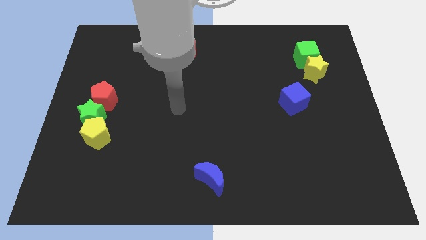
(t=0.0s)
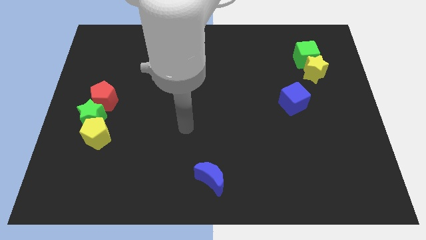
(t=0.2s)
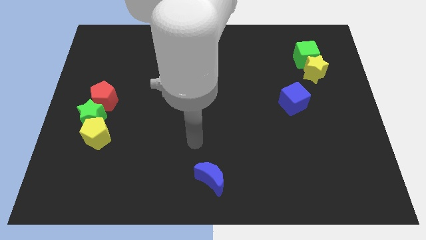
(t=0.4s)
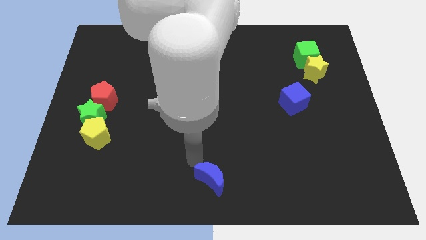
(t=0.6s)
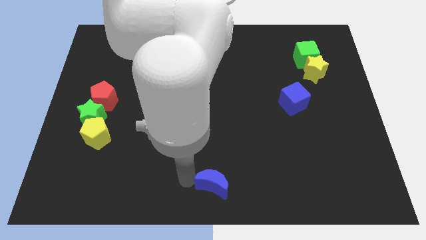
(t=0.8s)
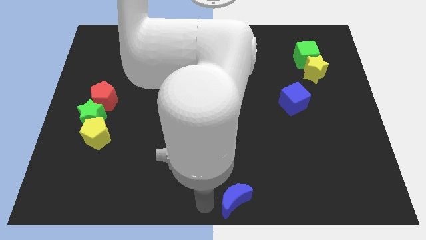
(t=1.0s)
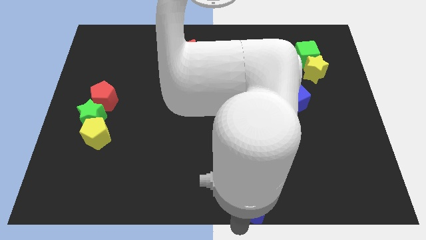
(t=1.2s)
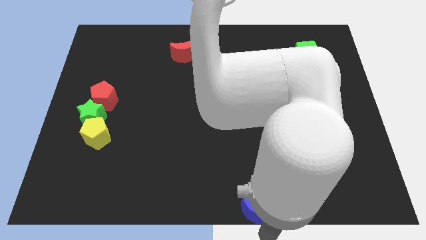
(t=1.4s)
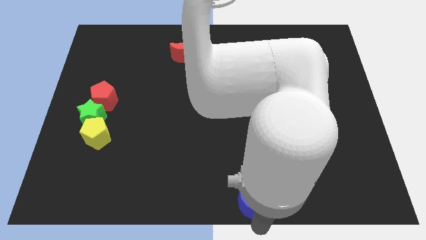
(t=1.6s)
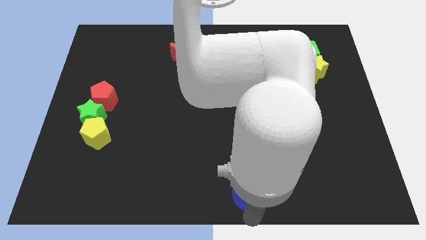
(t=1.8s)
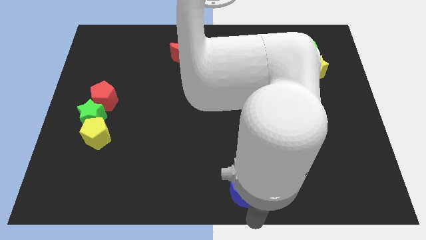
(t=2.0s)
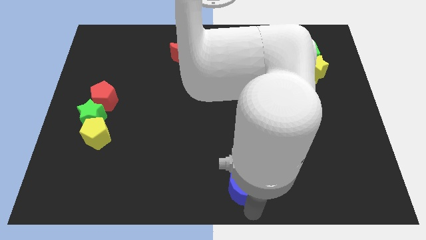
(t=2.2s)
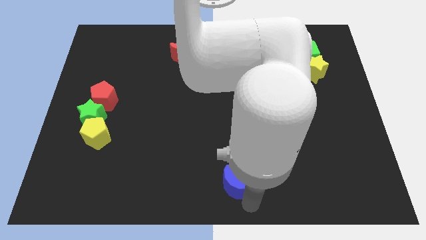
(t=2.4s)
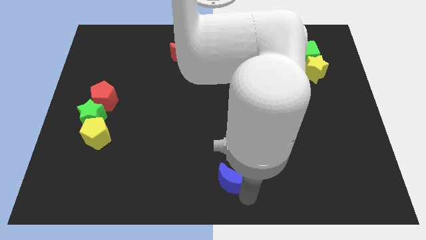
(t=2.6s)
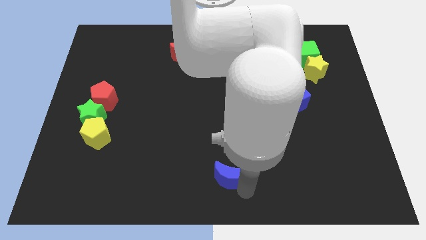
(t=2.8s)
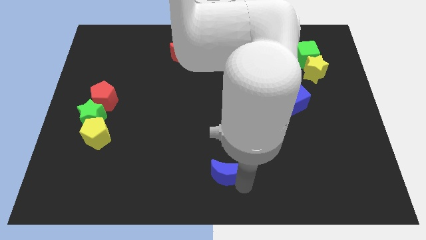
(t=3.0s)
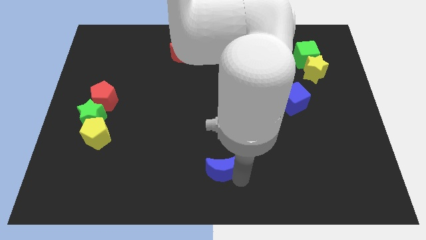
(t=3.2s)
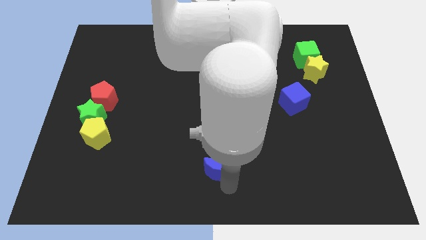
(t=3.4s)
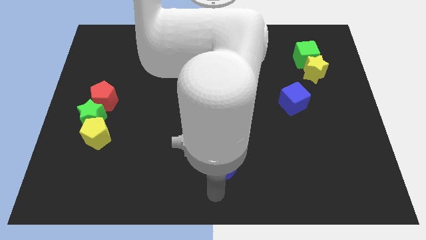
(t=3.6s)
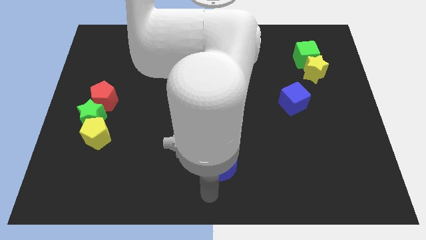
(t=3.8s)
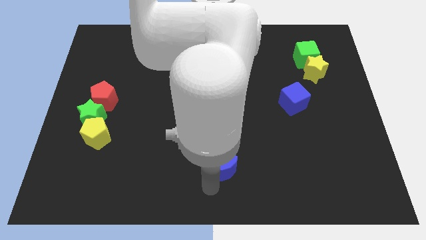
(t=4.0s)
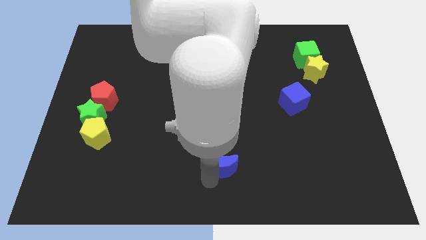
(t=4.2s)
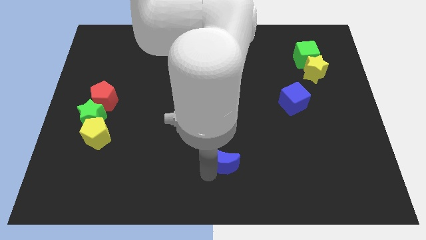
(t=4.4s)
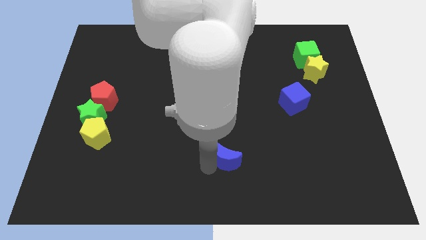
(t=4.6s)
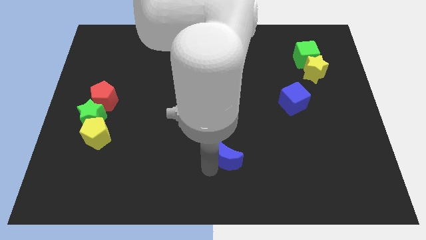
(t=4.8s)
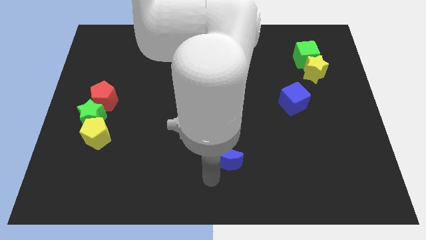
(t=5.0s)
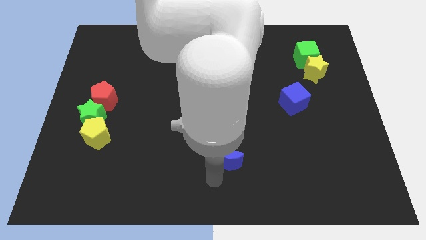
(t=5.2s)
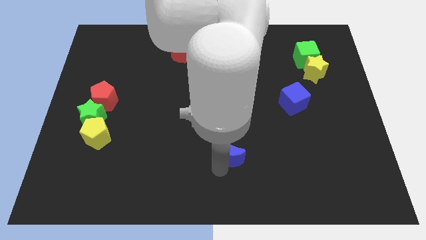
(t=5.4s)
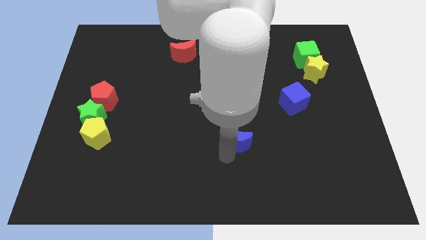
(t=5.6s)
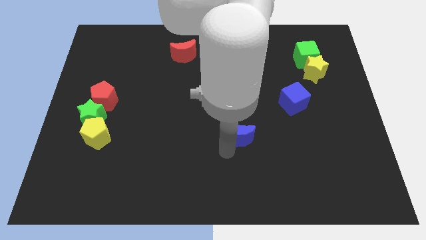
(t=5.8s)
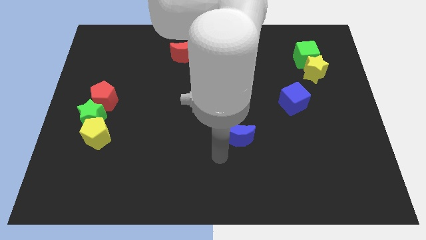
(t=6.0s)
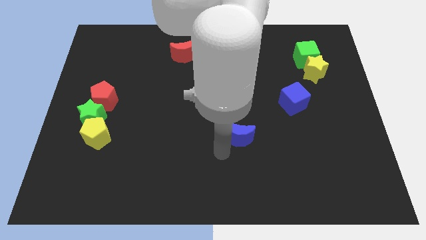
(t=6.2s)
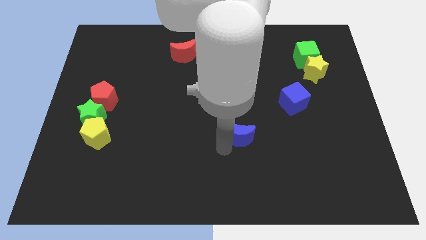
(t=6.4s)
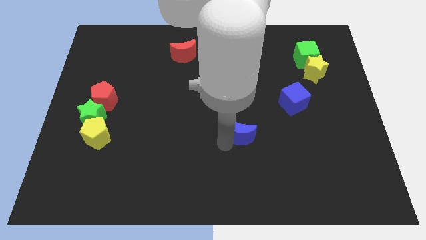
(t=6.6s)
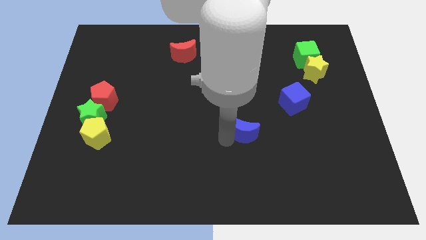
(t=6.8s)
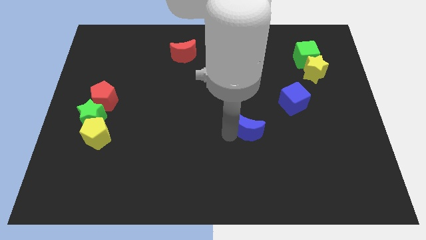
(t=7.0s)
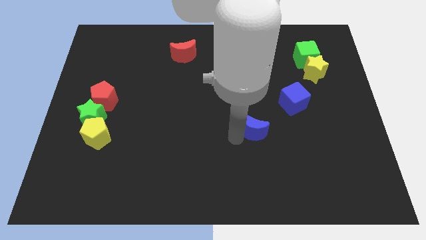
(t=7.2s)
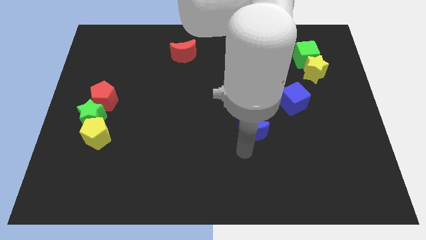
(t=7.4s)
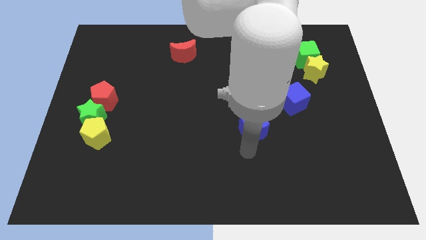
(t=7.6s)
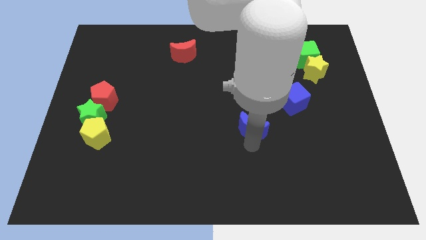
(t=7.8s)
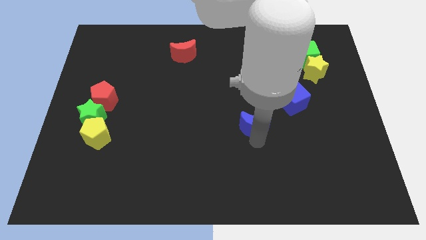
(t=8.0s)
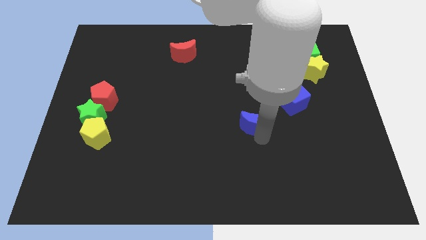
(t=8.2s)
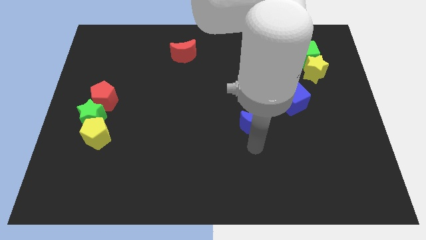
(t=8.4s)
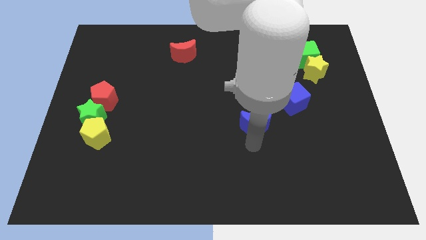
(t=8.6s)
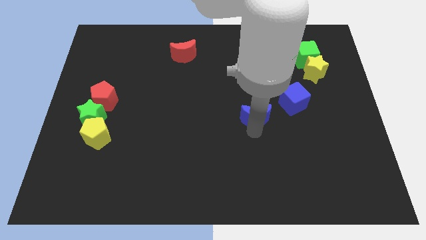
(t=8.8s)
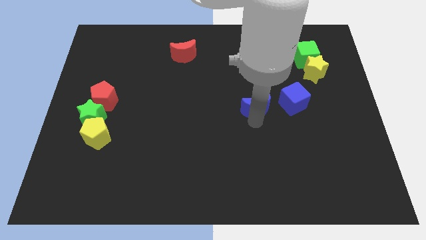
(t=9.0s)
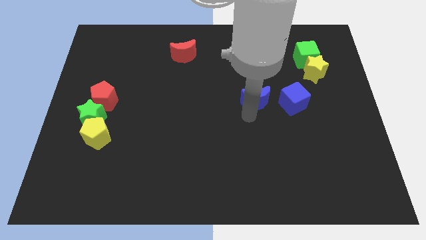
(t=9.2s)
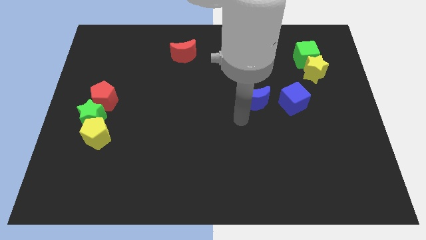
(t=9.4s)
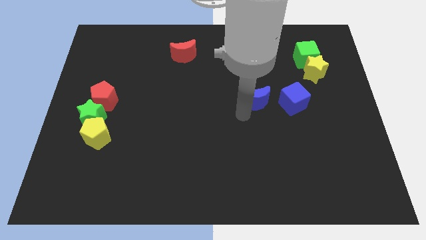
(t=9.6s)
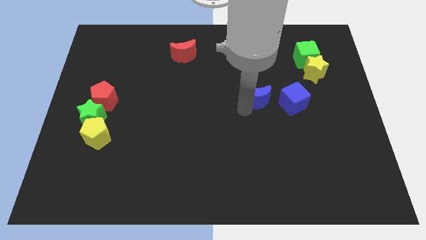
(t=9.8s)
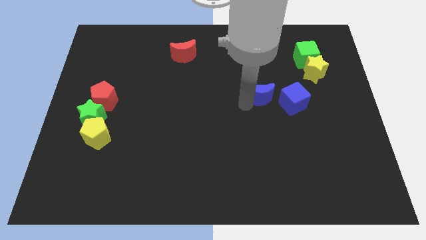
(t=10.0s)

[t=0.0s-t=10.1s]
move the blue moon to the top left of the blue cube

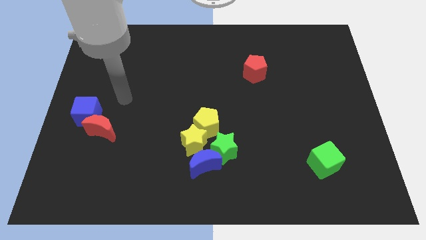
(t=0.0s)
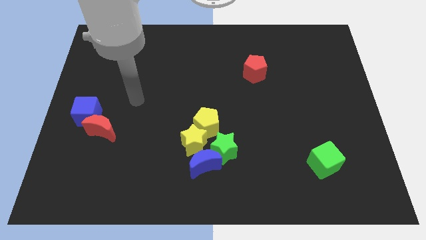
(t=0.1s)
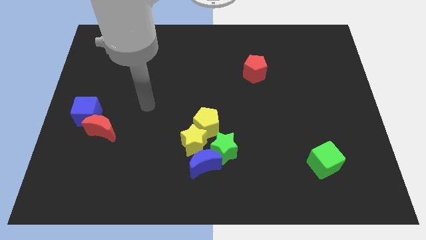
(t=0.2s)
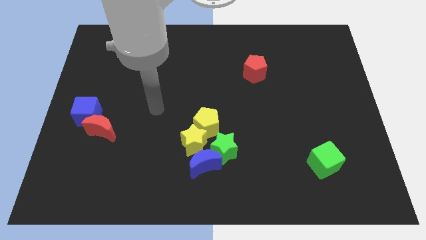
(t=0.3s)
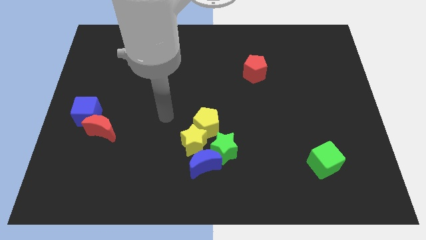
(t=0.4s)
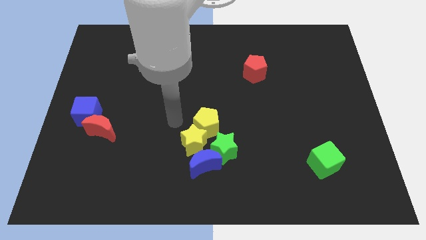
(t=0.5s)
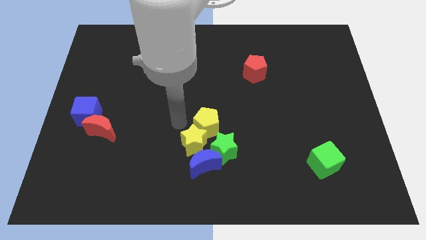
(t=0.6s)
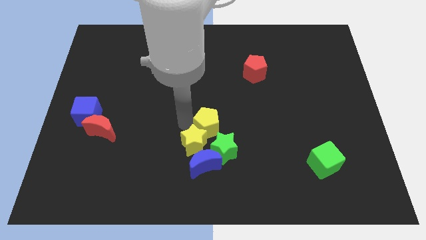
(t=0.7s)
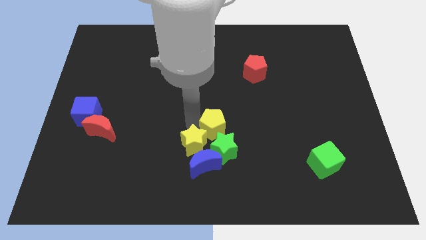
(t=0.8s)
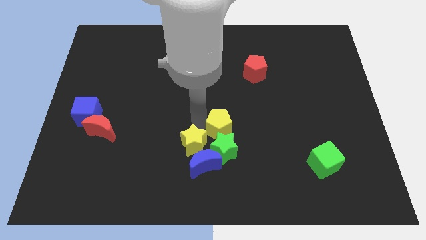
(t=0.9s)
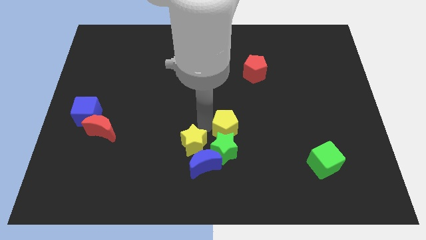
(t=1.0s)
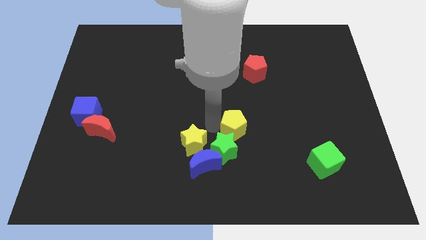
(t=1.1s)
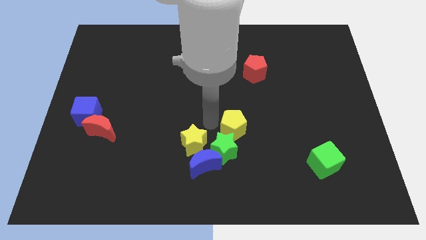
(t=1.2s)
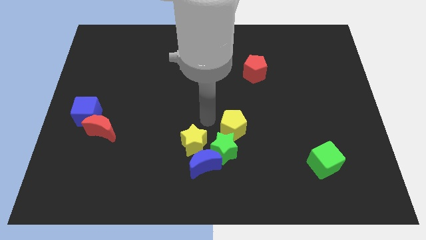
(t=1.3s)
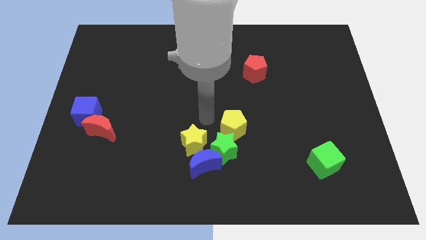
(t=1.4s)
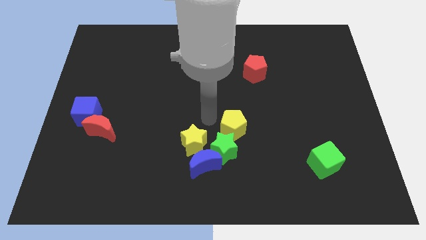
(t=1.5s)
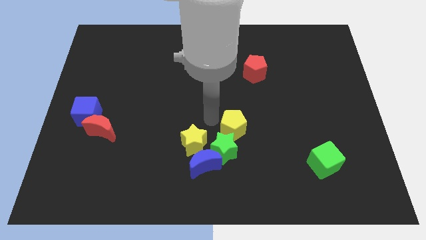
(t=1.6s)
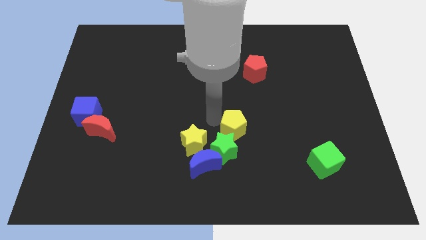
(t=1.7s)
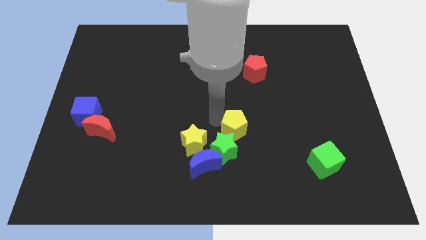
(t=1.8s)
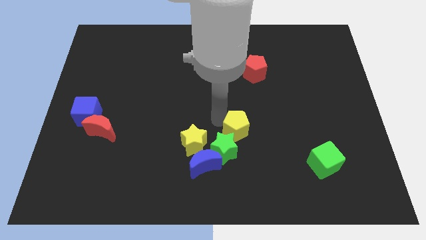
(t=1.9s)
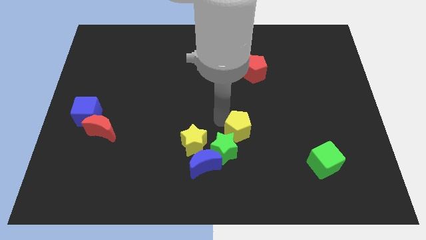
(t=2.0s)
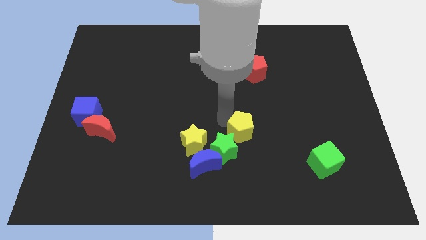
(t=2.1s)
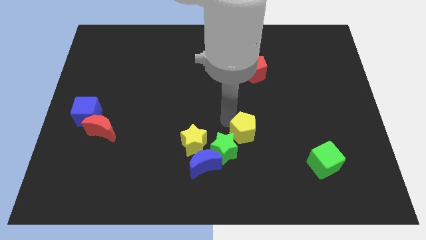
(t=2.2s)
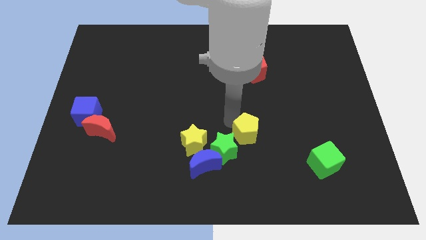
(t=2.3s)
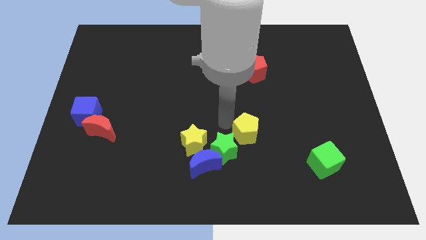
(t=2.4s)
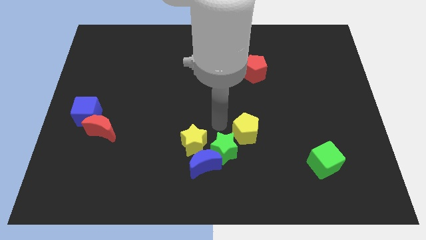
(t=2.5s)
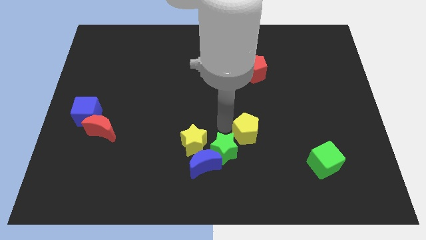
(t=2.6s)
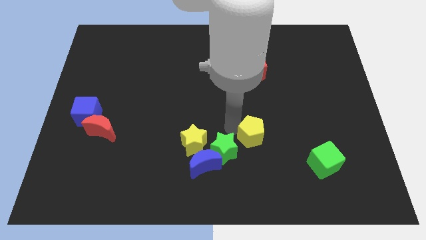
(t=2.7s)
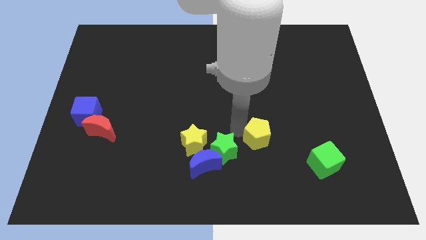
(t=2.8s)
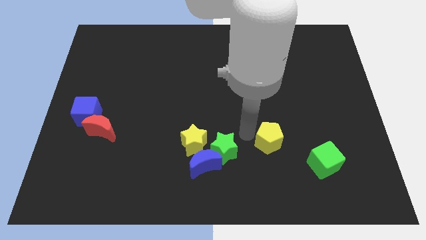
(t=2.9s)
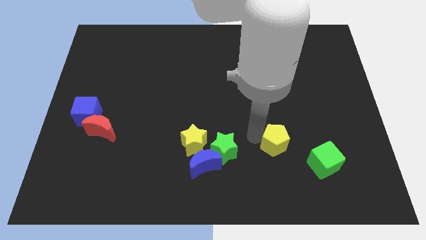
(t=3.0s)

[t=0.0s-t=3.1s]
push the yellow pentagon to the top left of the green cube
